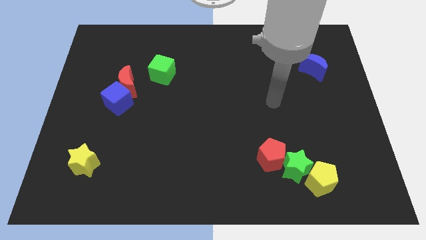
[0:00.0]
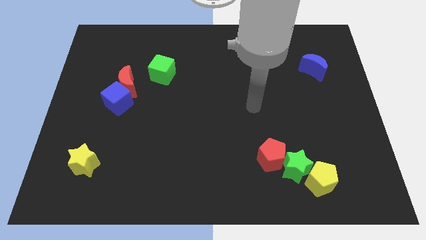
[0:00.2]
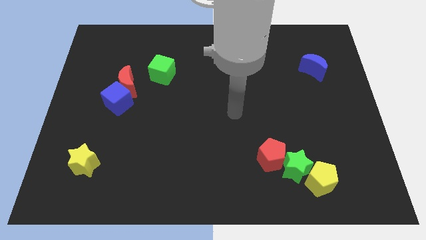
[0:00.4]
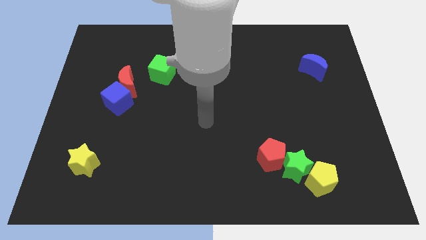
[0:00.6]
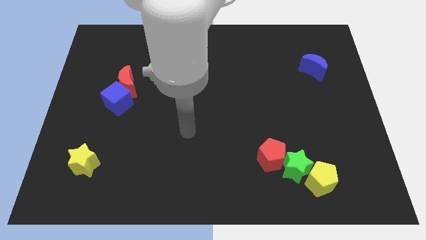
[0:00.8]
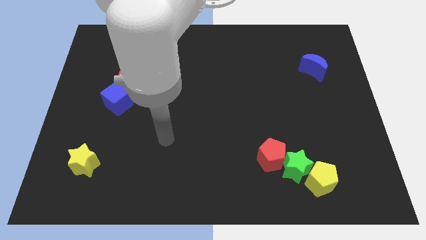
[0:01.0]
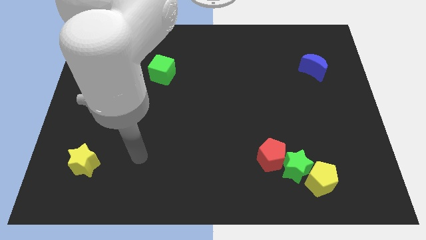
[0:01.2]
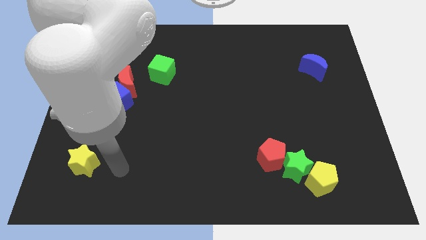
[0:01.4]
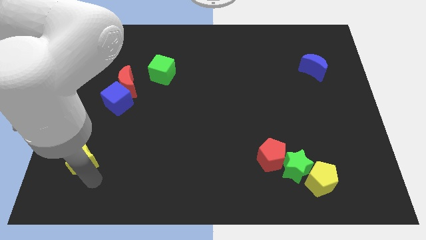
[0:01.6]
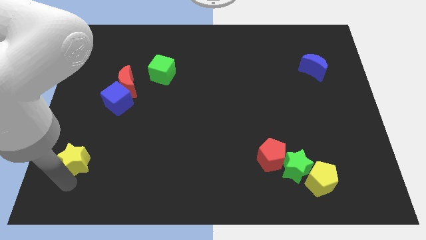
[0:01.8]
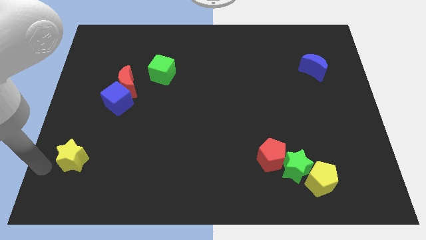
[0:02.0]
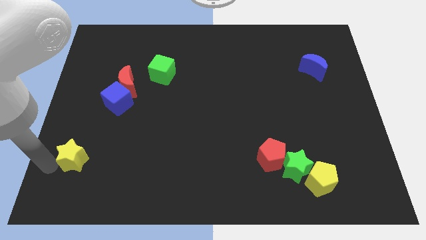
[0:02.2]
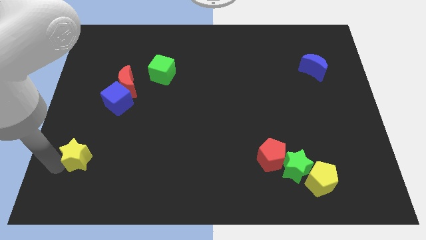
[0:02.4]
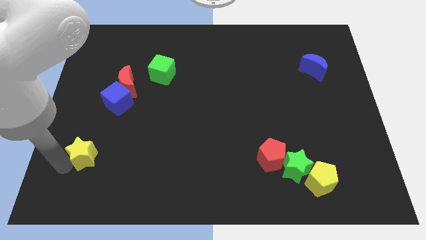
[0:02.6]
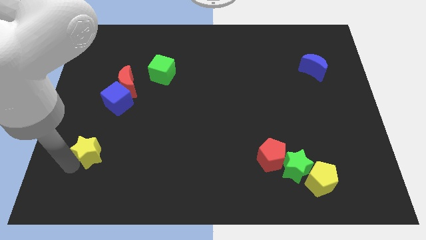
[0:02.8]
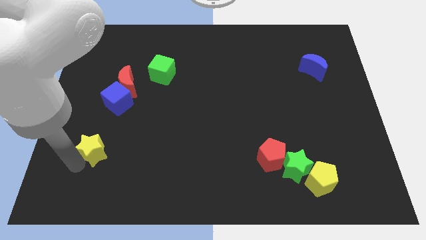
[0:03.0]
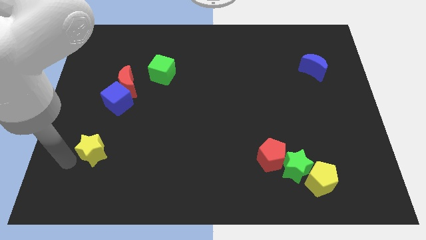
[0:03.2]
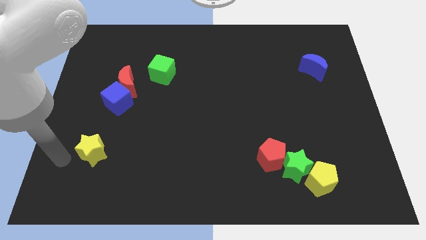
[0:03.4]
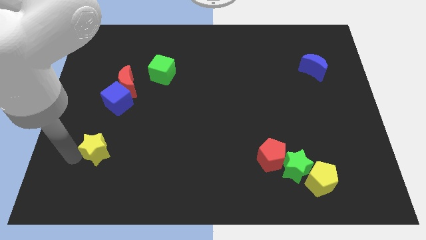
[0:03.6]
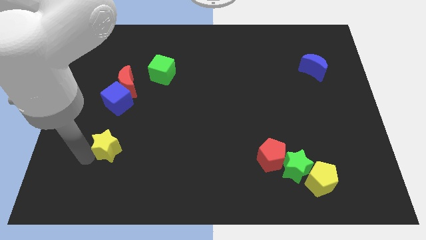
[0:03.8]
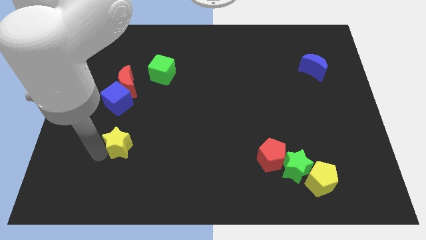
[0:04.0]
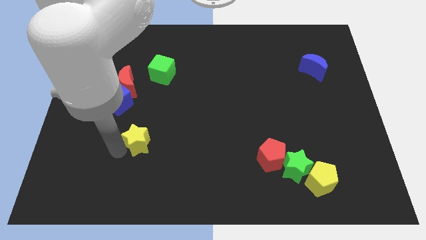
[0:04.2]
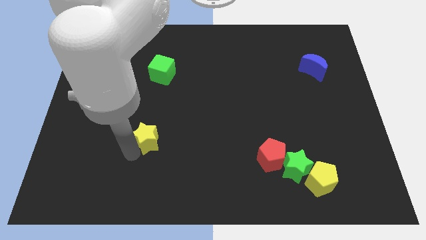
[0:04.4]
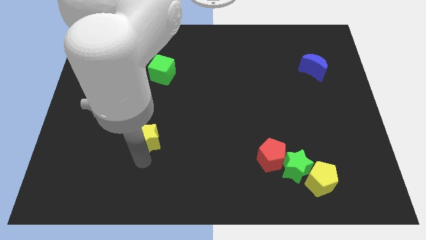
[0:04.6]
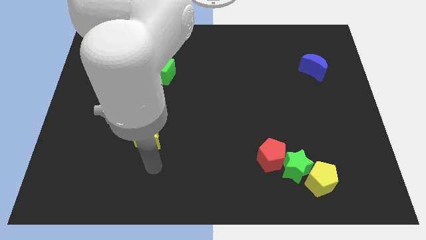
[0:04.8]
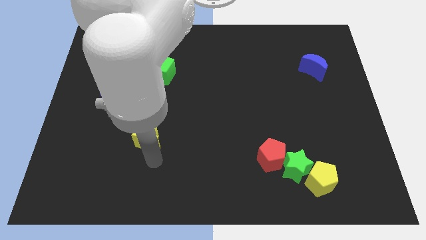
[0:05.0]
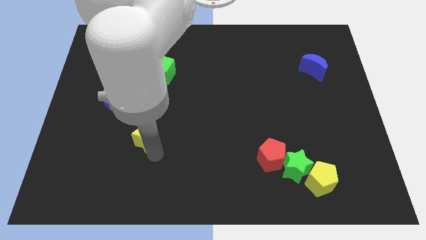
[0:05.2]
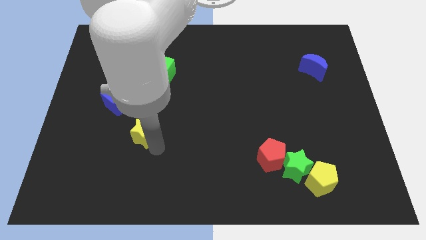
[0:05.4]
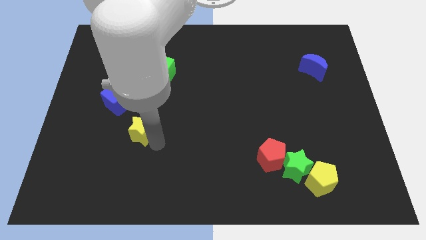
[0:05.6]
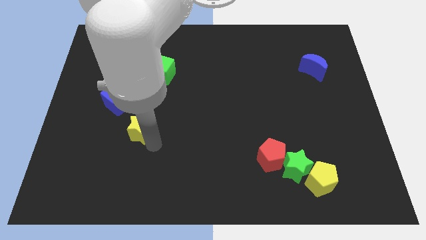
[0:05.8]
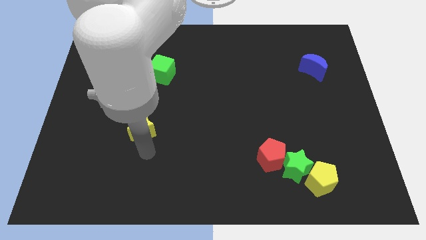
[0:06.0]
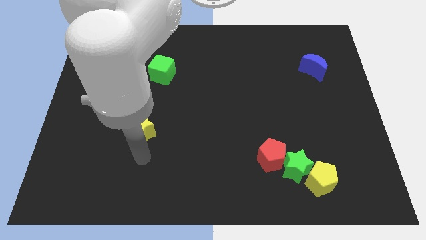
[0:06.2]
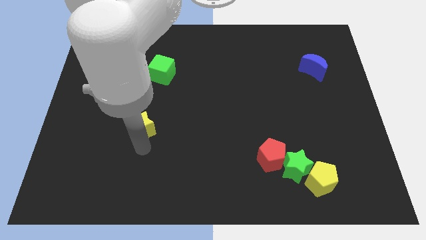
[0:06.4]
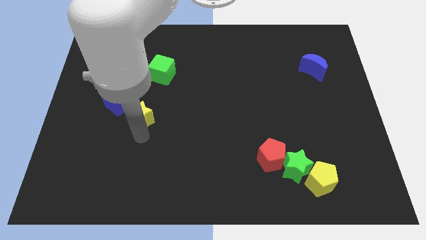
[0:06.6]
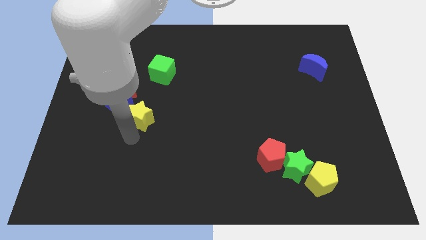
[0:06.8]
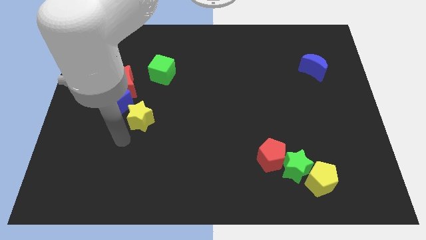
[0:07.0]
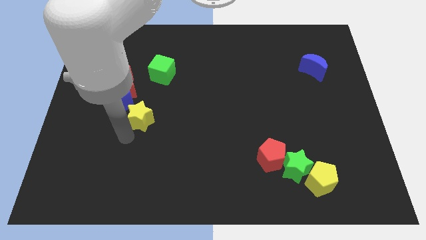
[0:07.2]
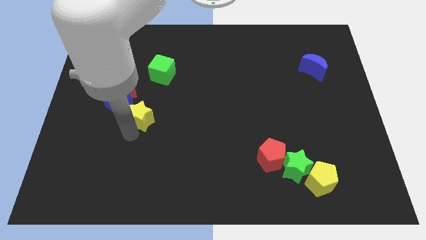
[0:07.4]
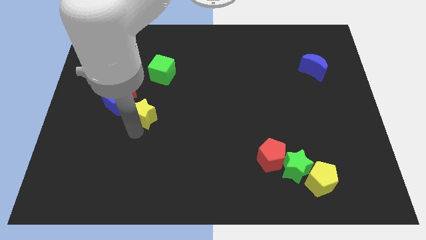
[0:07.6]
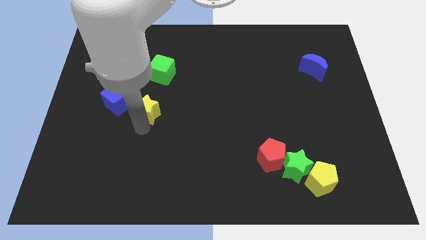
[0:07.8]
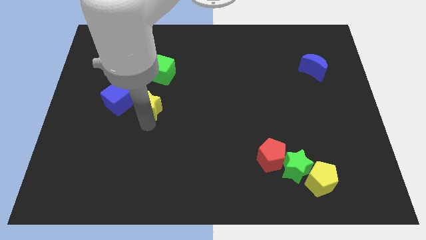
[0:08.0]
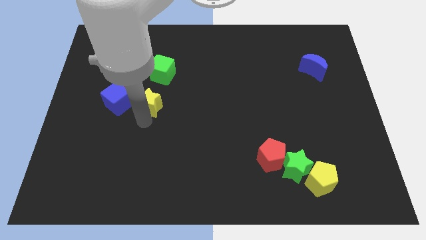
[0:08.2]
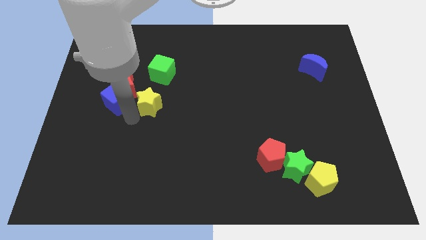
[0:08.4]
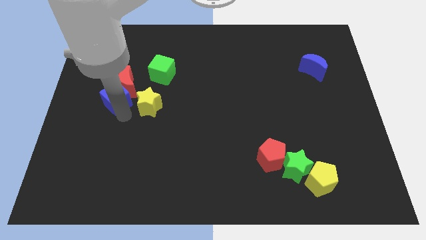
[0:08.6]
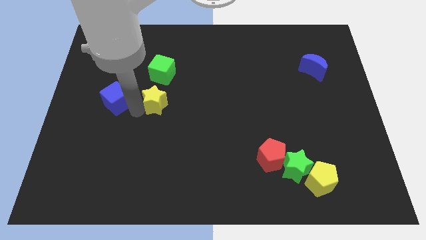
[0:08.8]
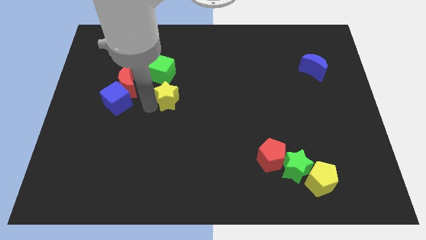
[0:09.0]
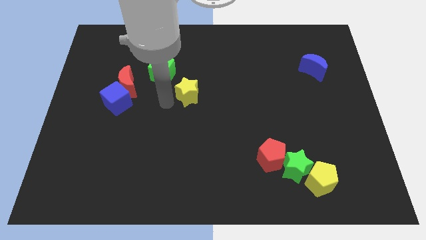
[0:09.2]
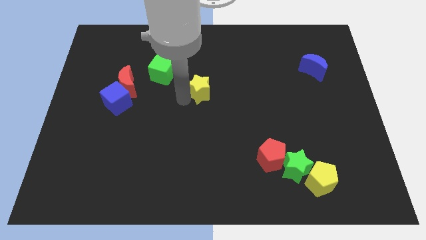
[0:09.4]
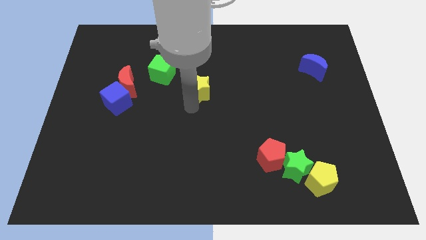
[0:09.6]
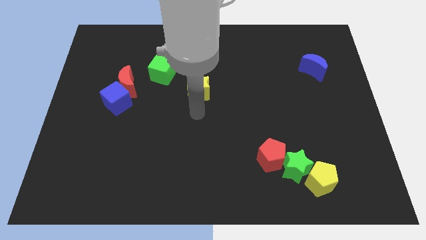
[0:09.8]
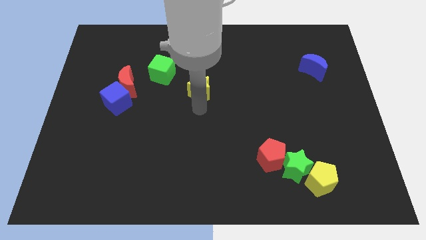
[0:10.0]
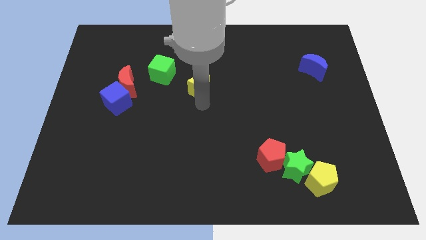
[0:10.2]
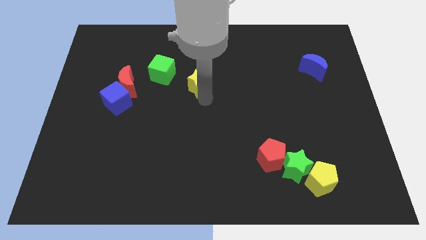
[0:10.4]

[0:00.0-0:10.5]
put the yellow star right of the green cube

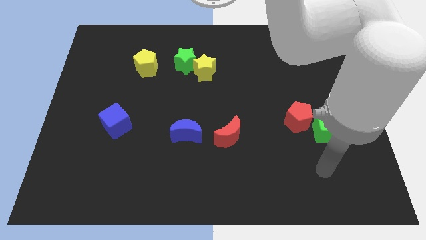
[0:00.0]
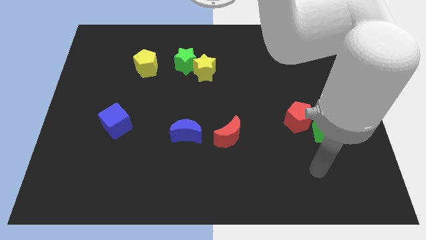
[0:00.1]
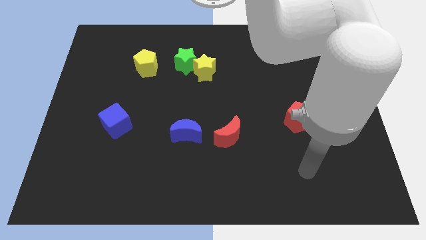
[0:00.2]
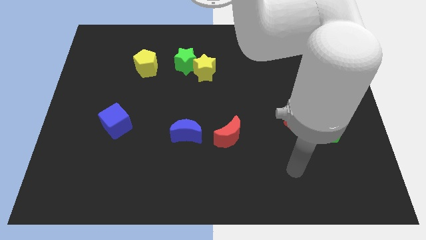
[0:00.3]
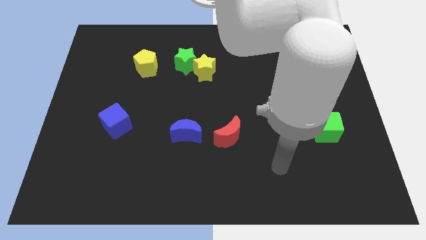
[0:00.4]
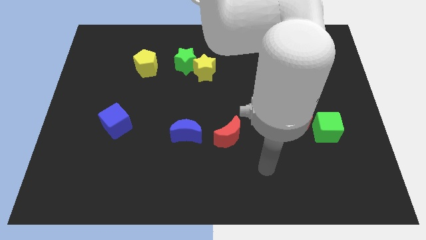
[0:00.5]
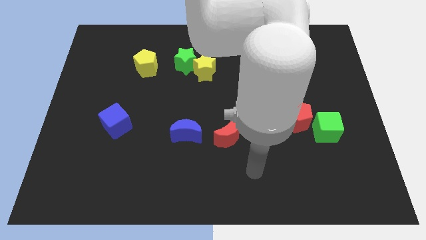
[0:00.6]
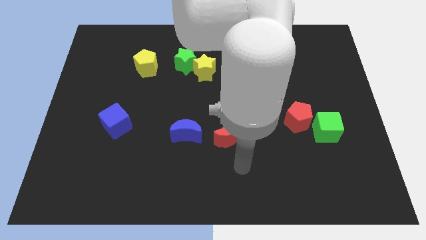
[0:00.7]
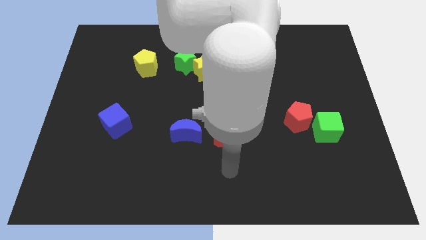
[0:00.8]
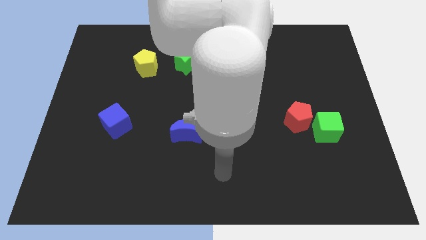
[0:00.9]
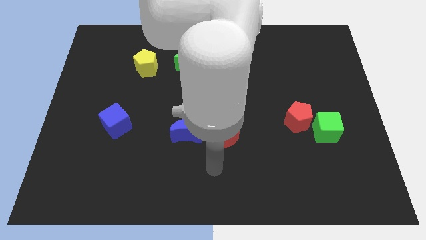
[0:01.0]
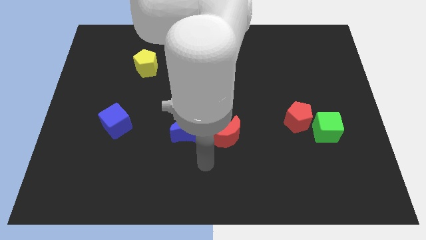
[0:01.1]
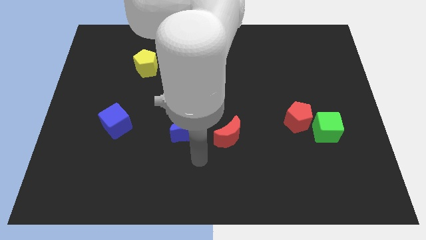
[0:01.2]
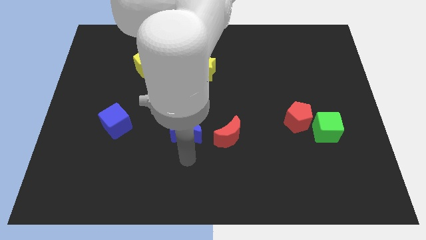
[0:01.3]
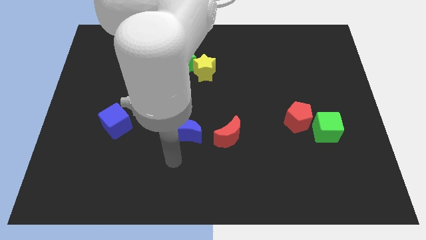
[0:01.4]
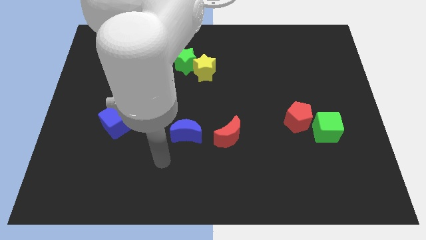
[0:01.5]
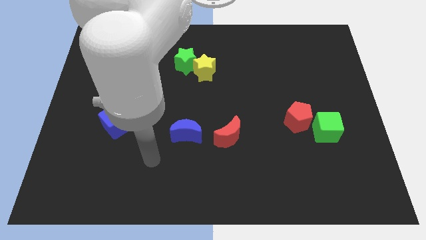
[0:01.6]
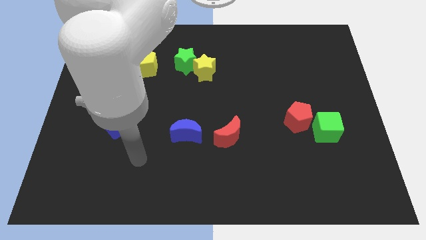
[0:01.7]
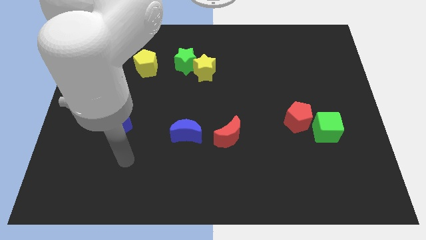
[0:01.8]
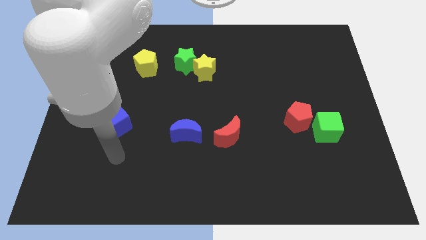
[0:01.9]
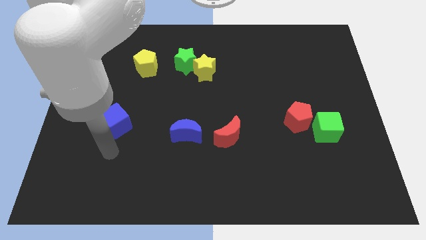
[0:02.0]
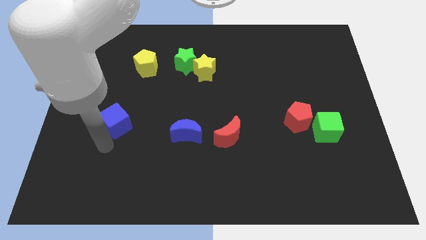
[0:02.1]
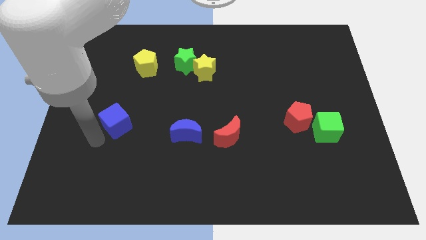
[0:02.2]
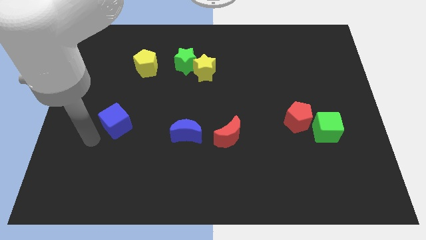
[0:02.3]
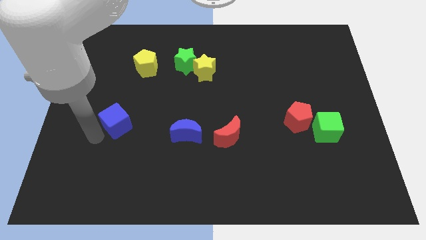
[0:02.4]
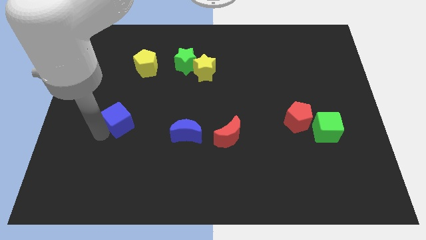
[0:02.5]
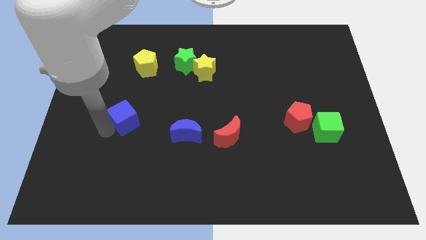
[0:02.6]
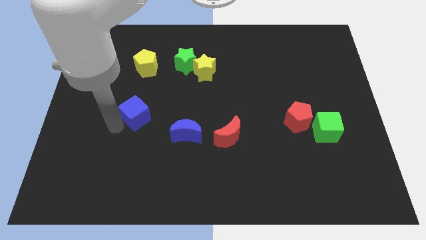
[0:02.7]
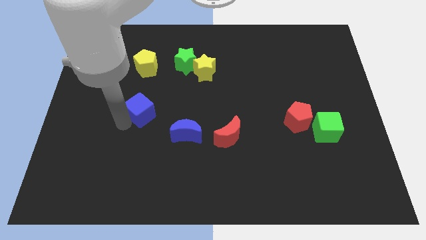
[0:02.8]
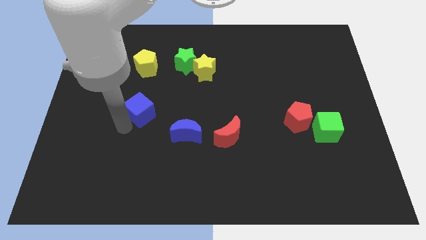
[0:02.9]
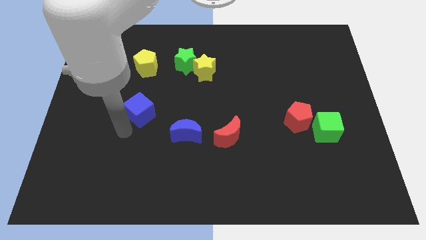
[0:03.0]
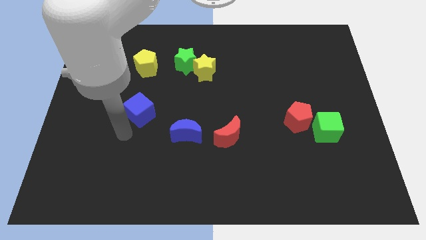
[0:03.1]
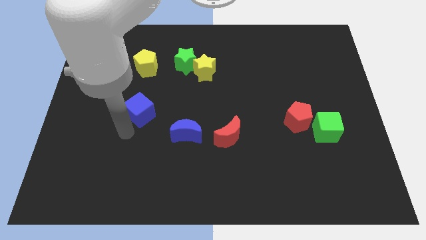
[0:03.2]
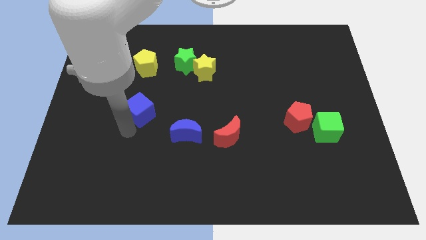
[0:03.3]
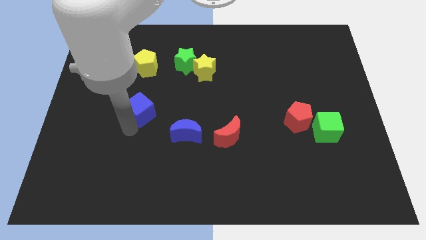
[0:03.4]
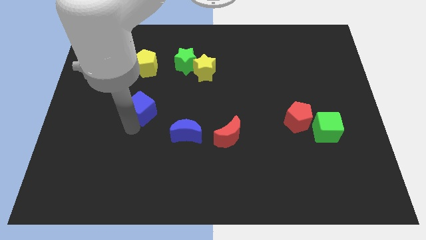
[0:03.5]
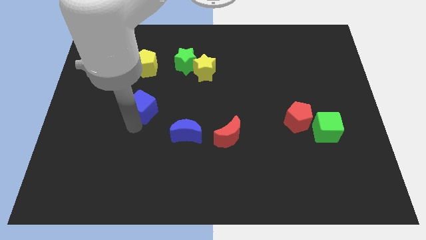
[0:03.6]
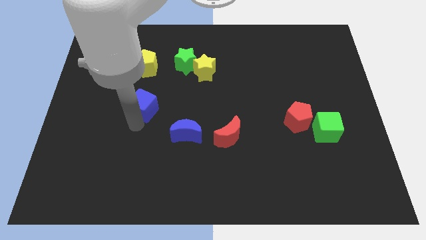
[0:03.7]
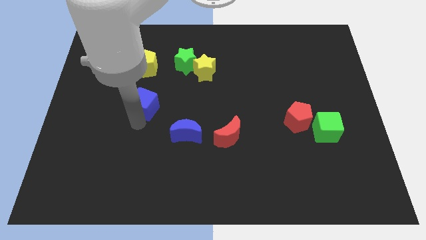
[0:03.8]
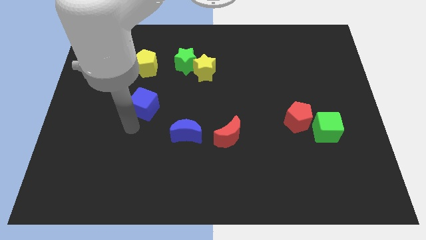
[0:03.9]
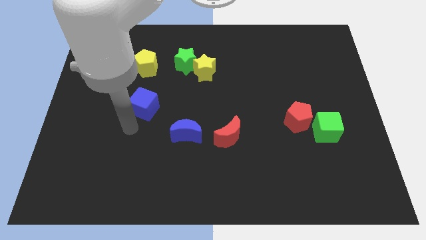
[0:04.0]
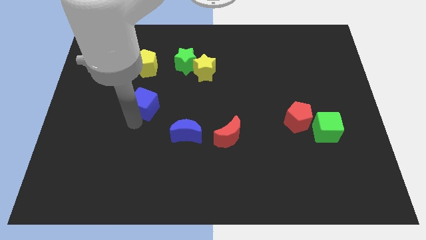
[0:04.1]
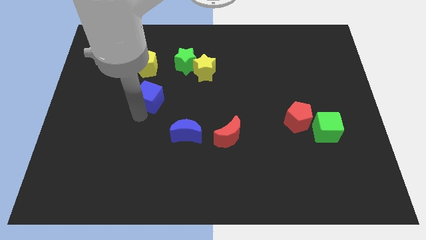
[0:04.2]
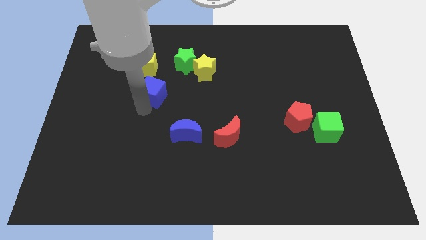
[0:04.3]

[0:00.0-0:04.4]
slide the blue cube diagonally down and to the left of the green star
